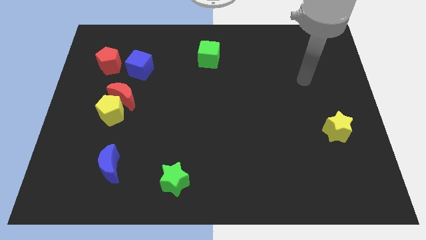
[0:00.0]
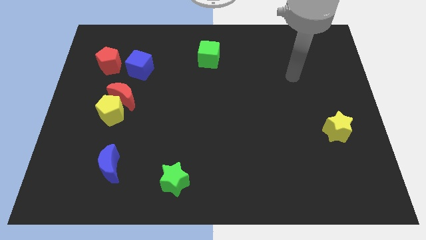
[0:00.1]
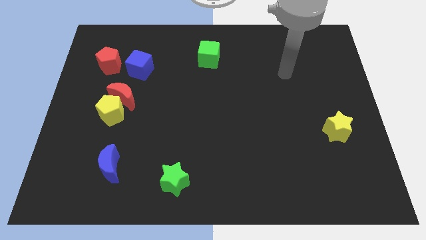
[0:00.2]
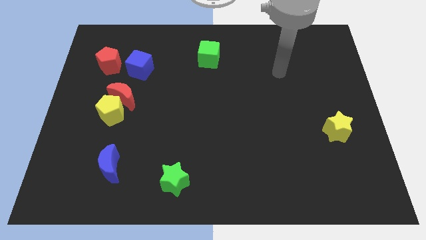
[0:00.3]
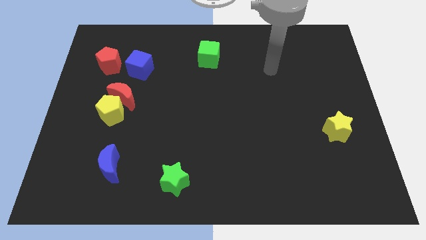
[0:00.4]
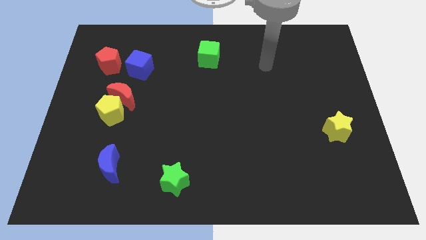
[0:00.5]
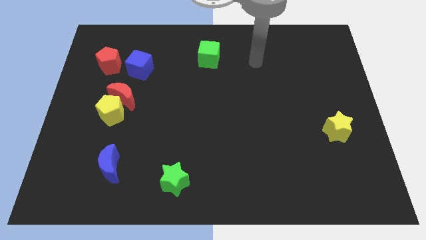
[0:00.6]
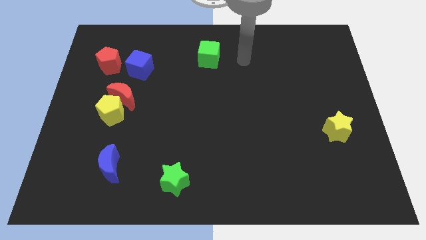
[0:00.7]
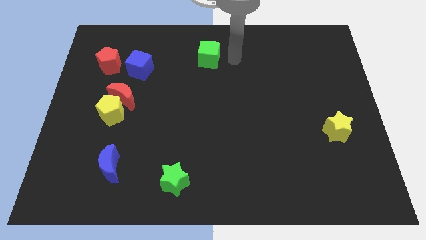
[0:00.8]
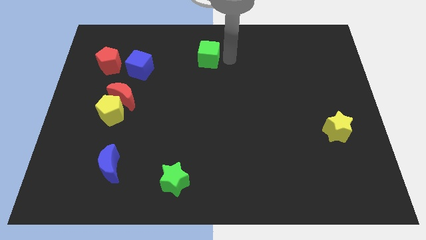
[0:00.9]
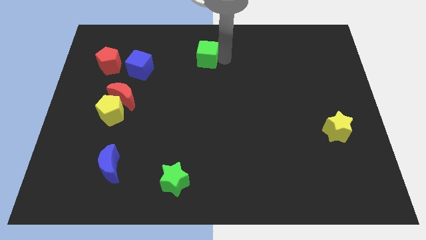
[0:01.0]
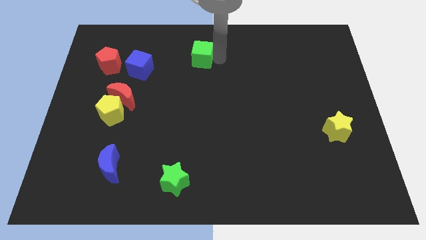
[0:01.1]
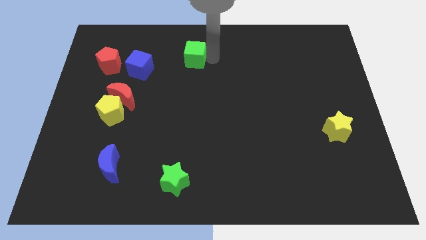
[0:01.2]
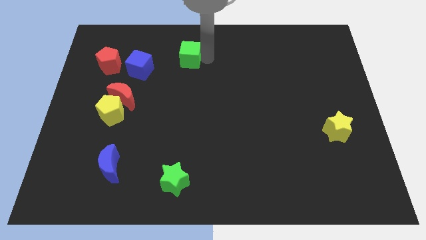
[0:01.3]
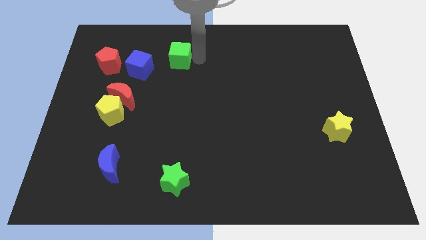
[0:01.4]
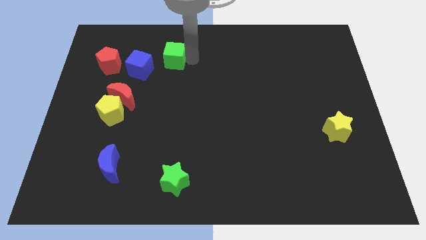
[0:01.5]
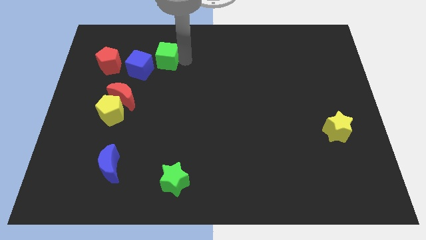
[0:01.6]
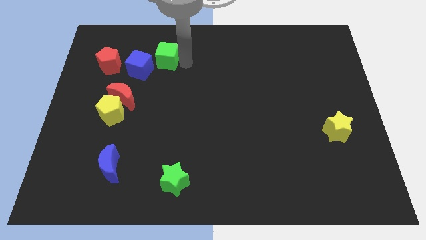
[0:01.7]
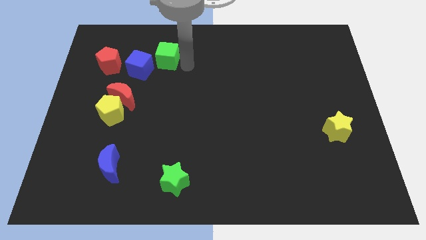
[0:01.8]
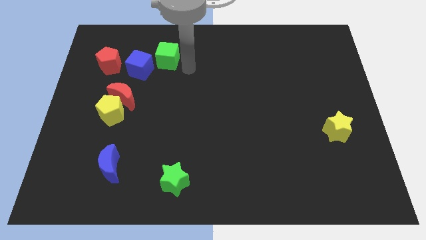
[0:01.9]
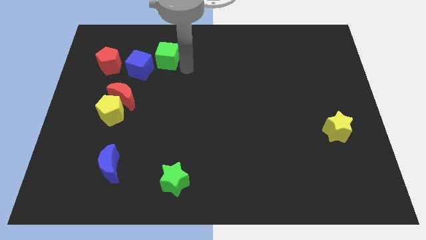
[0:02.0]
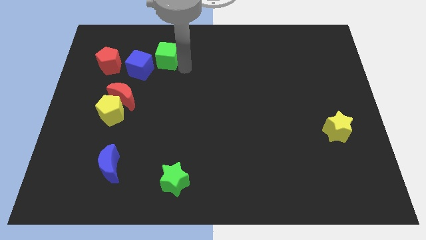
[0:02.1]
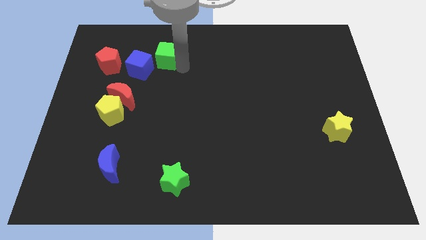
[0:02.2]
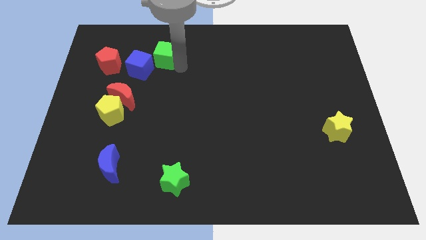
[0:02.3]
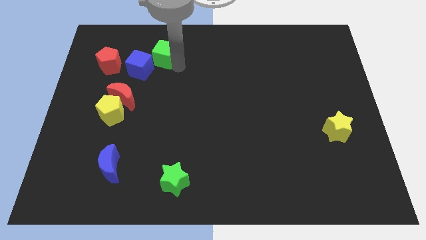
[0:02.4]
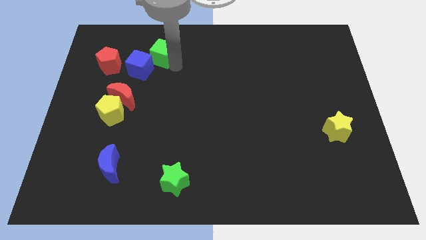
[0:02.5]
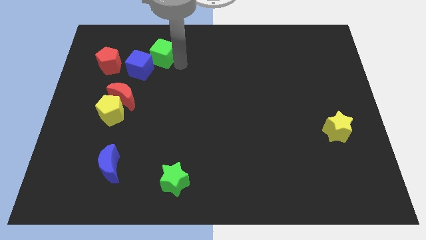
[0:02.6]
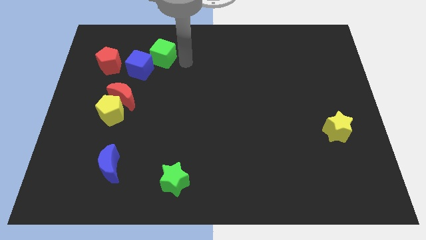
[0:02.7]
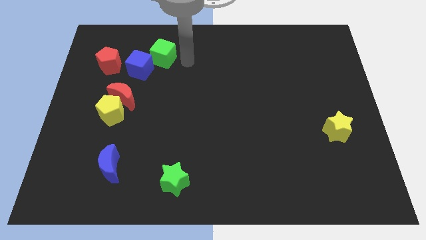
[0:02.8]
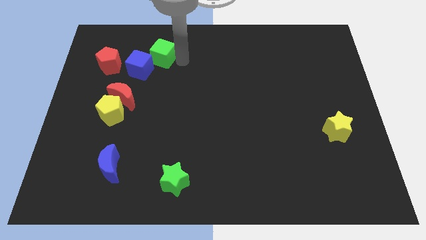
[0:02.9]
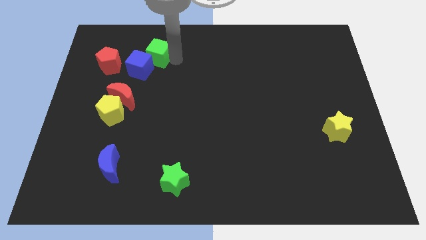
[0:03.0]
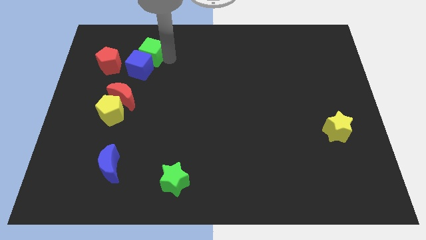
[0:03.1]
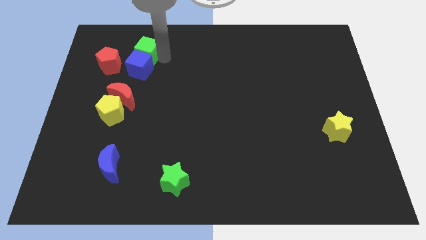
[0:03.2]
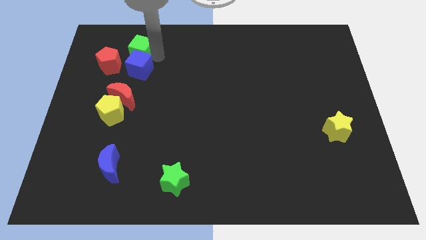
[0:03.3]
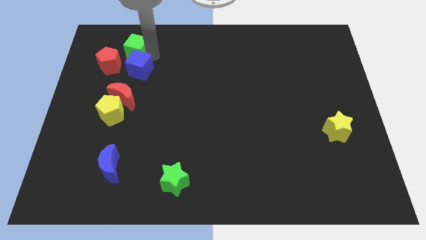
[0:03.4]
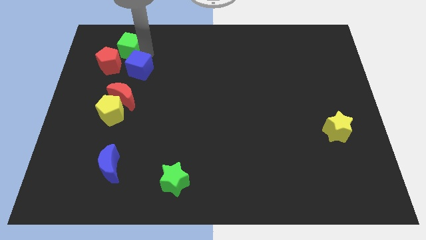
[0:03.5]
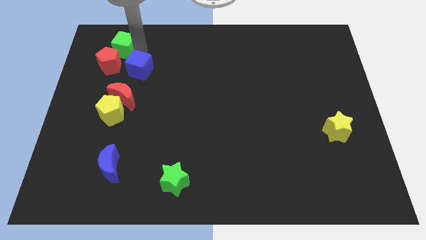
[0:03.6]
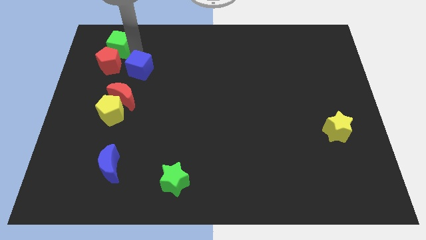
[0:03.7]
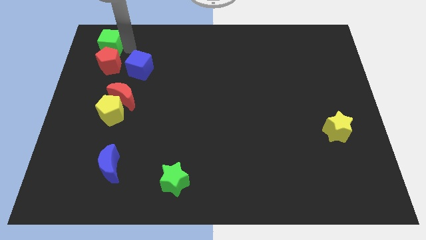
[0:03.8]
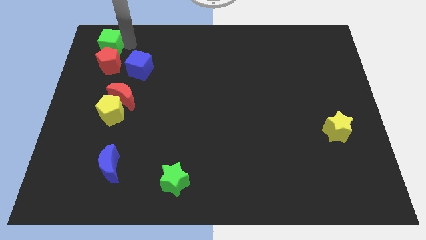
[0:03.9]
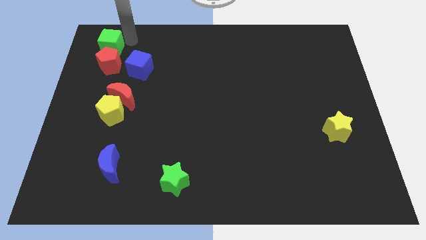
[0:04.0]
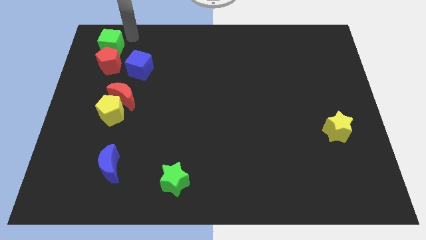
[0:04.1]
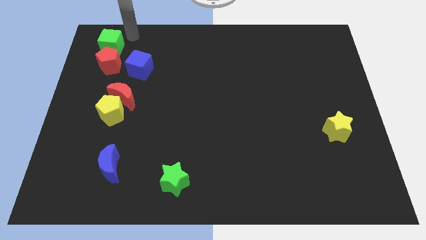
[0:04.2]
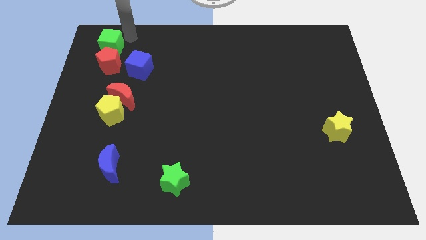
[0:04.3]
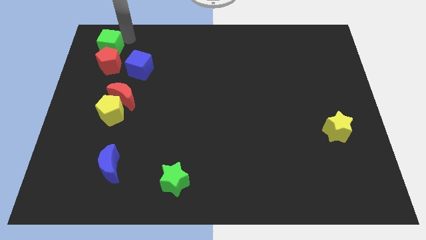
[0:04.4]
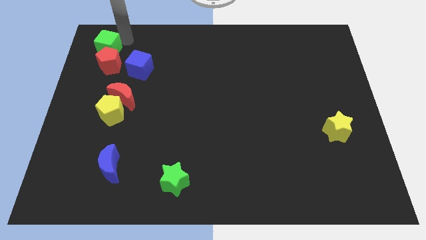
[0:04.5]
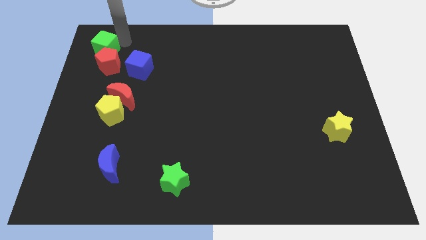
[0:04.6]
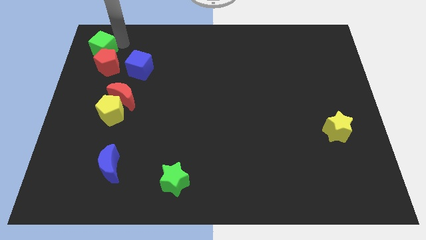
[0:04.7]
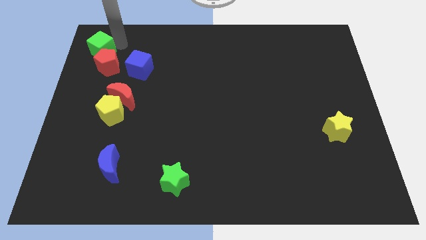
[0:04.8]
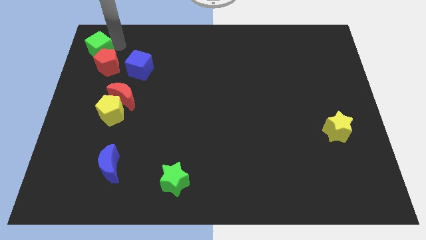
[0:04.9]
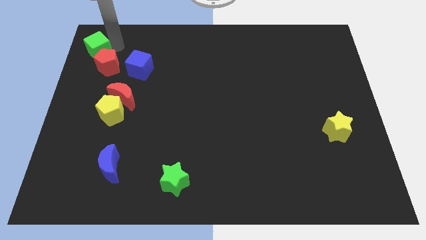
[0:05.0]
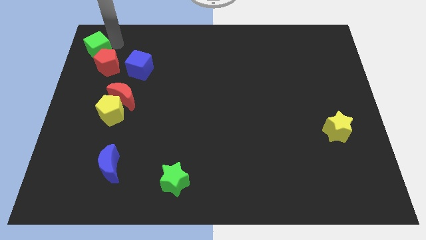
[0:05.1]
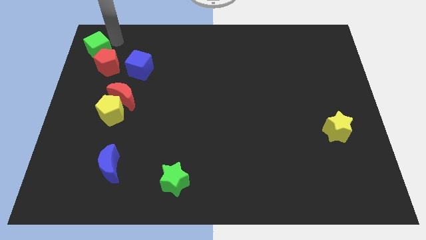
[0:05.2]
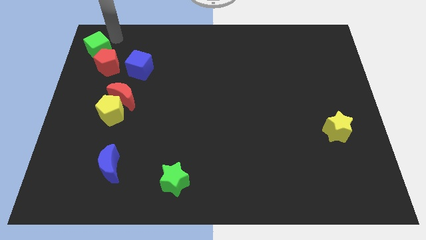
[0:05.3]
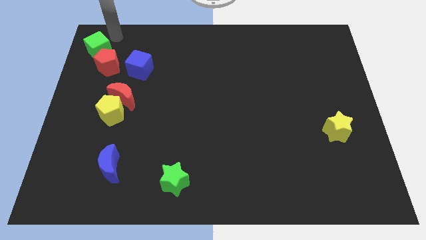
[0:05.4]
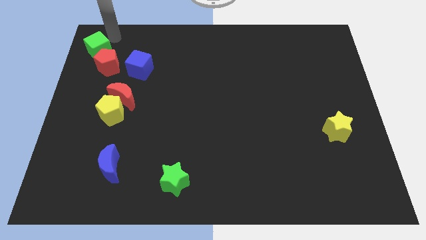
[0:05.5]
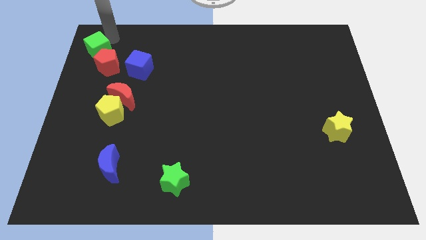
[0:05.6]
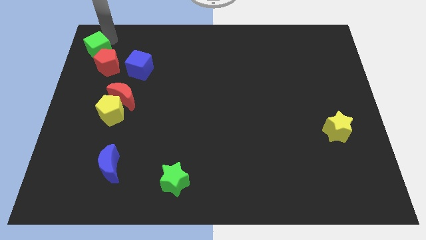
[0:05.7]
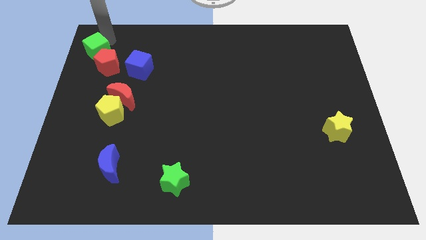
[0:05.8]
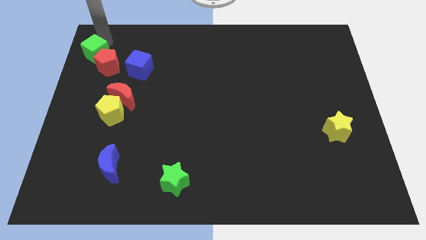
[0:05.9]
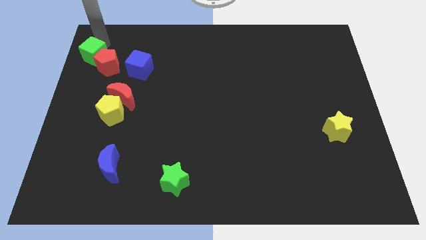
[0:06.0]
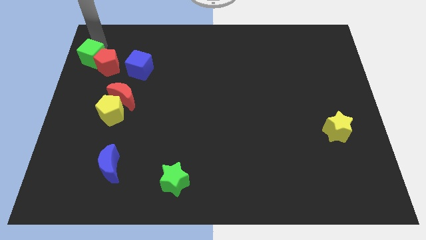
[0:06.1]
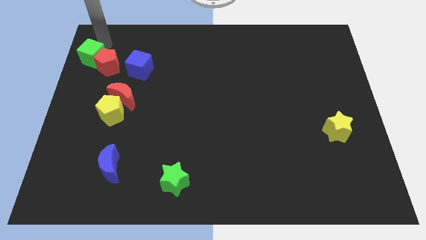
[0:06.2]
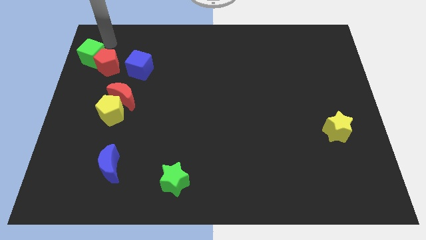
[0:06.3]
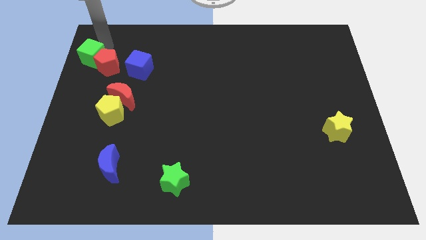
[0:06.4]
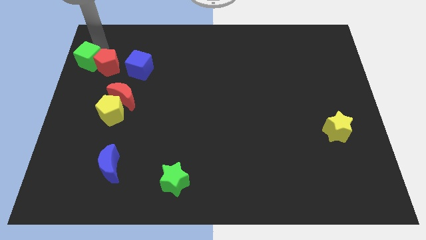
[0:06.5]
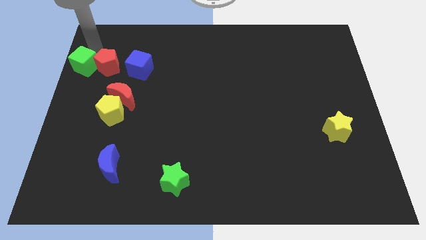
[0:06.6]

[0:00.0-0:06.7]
put the green cube to the left side
